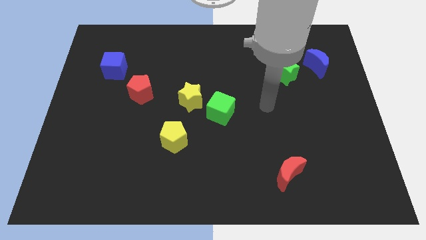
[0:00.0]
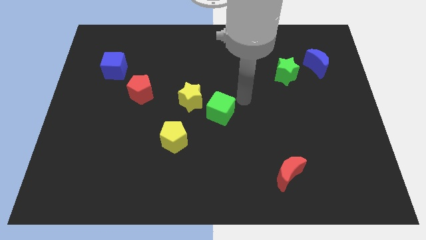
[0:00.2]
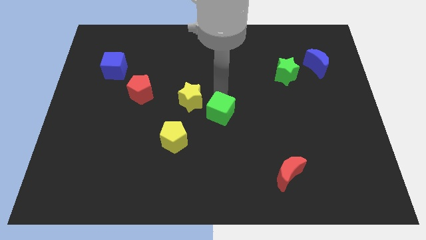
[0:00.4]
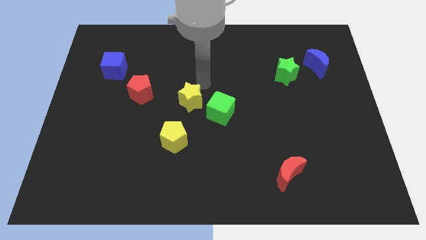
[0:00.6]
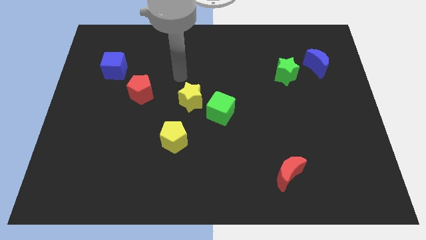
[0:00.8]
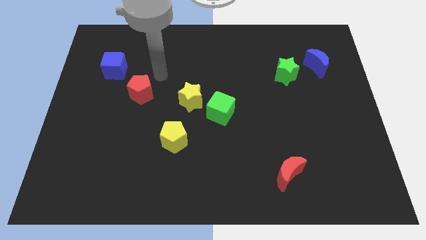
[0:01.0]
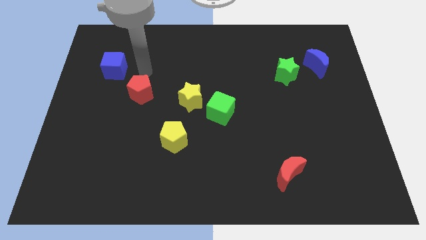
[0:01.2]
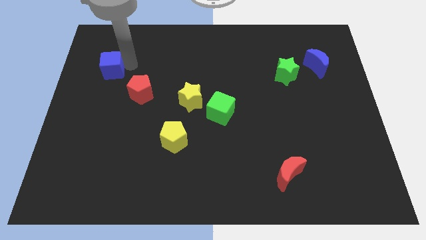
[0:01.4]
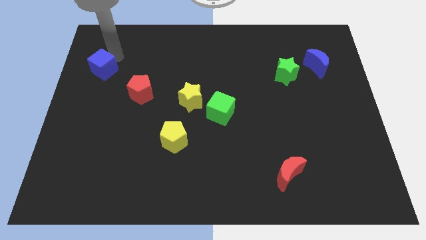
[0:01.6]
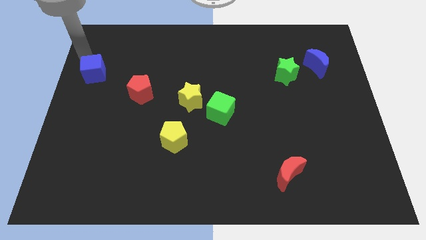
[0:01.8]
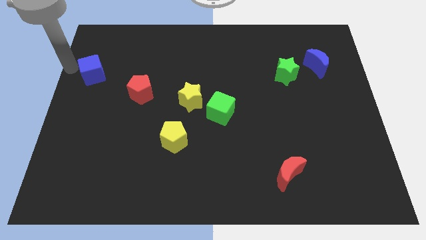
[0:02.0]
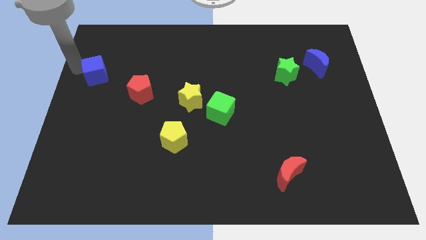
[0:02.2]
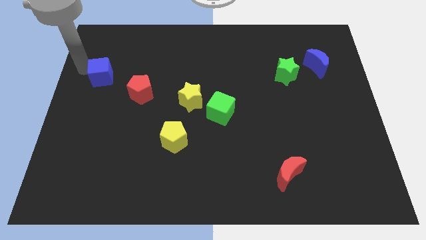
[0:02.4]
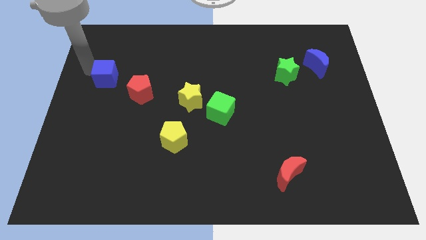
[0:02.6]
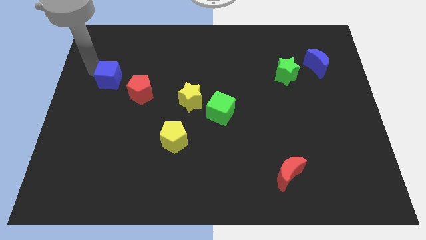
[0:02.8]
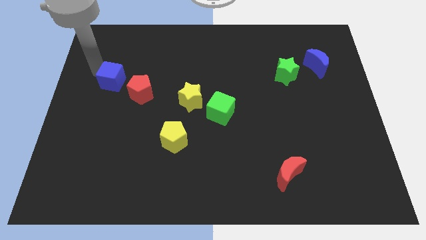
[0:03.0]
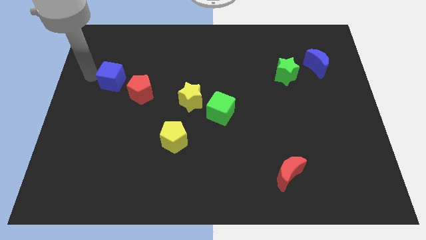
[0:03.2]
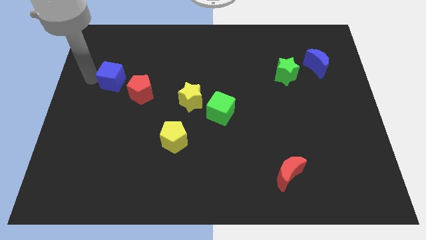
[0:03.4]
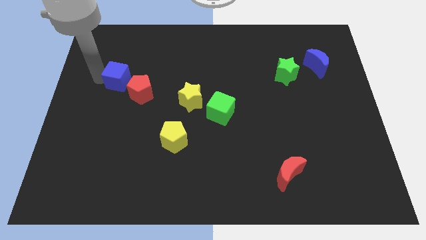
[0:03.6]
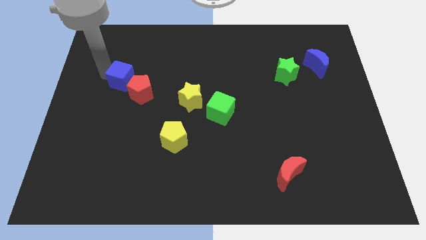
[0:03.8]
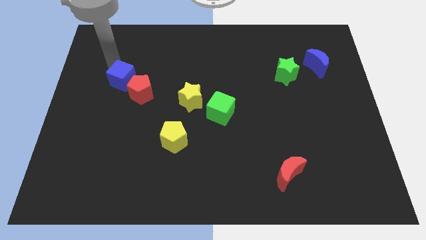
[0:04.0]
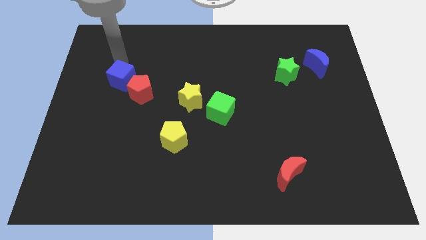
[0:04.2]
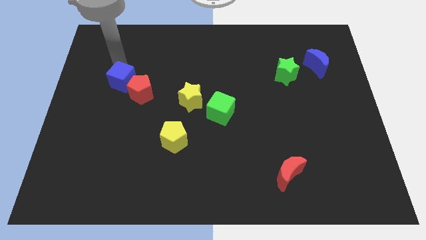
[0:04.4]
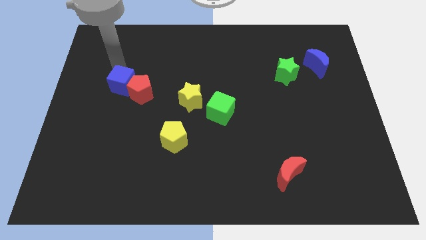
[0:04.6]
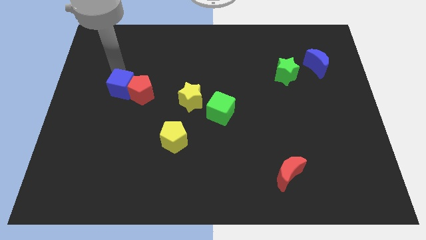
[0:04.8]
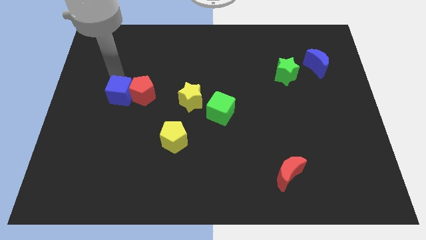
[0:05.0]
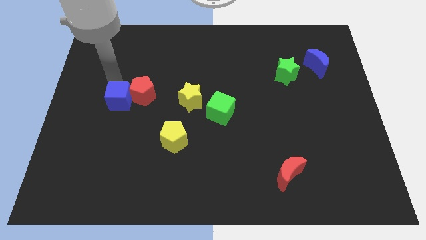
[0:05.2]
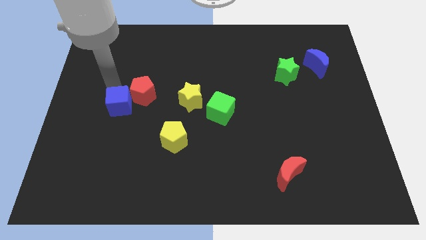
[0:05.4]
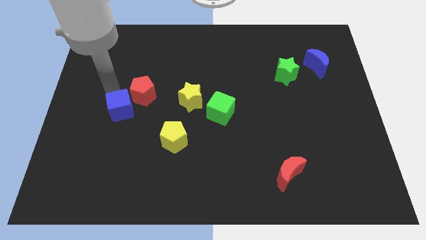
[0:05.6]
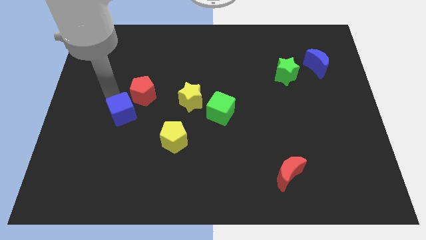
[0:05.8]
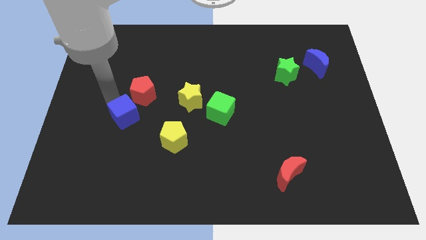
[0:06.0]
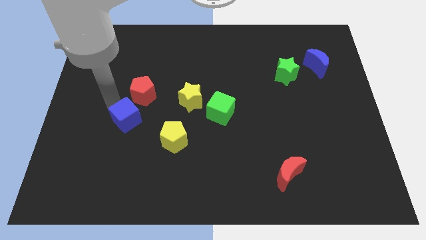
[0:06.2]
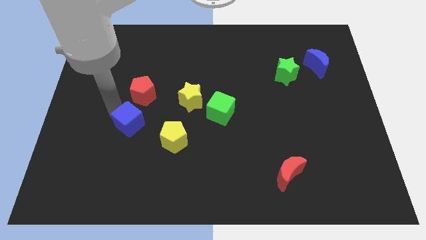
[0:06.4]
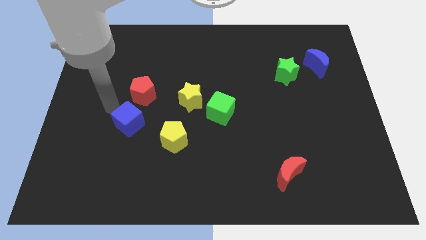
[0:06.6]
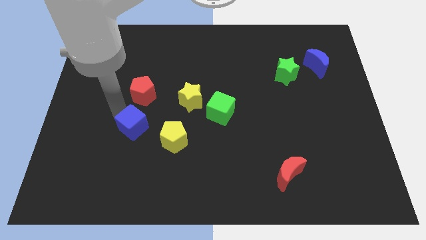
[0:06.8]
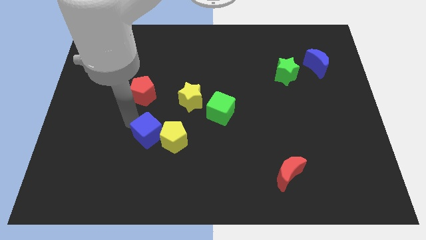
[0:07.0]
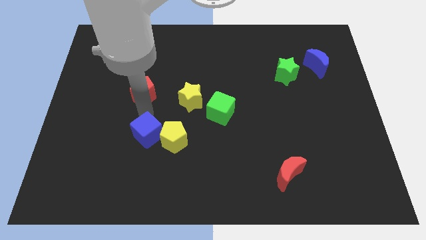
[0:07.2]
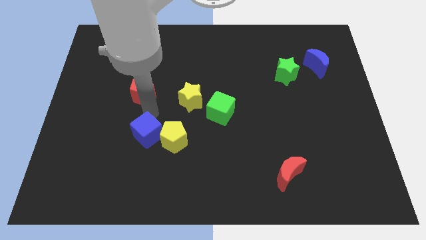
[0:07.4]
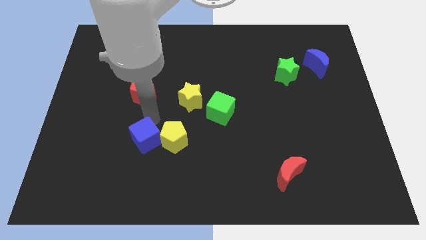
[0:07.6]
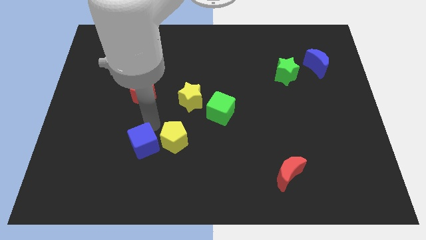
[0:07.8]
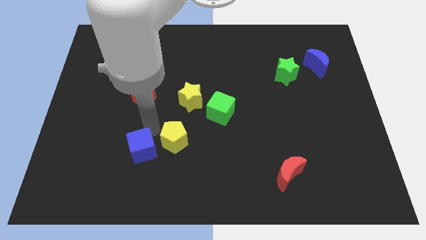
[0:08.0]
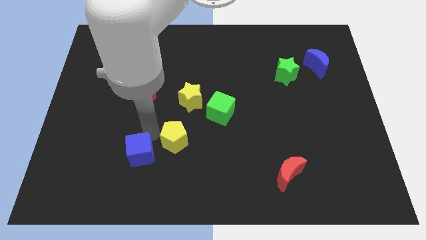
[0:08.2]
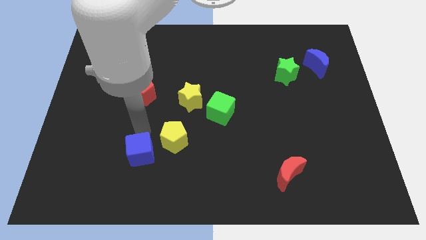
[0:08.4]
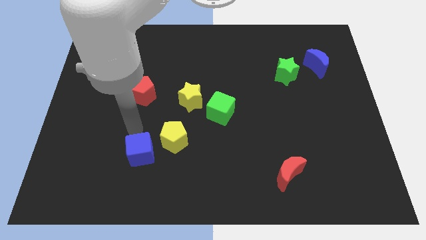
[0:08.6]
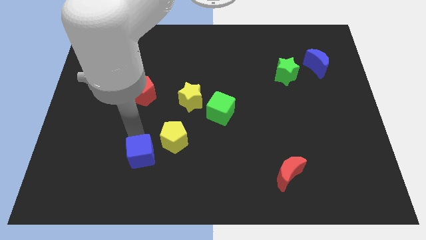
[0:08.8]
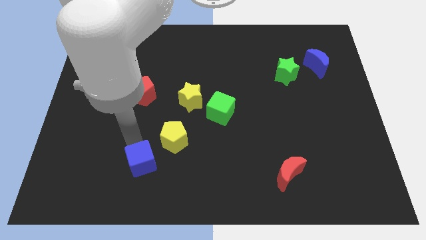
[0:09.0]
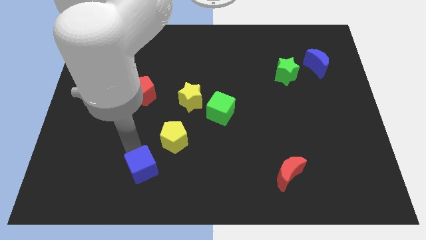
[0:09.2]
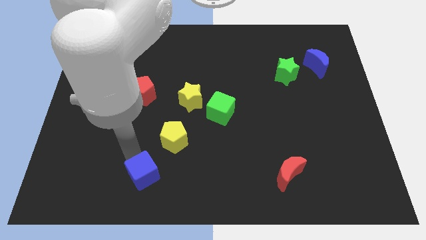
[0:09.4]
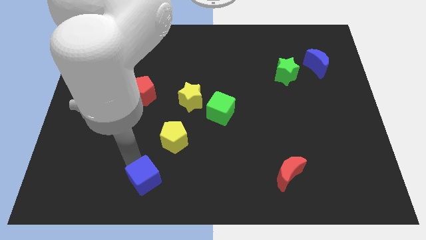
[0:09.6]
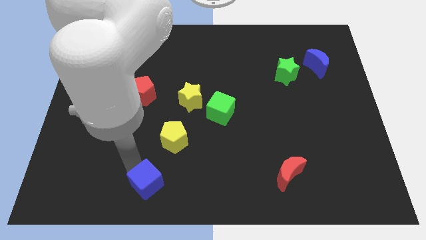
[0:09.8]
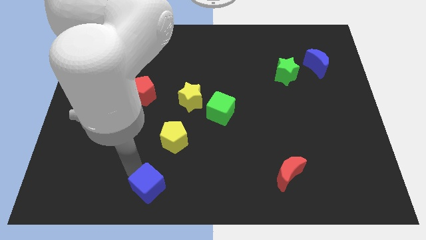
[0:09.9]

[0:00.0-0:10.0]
slide the blue cube to the bottom side

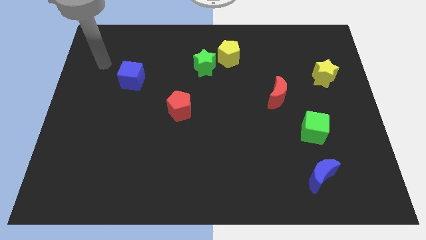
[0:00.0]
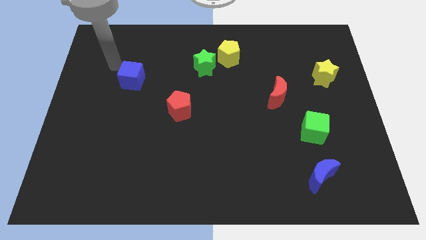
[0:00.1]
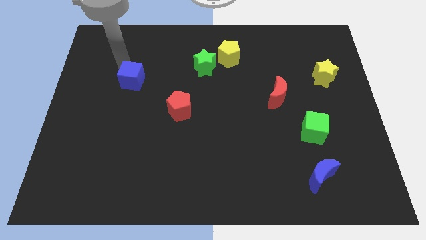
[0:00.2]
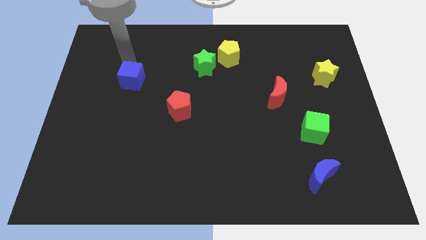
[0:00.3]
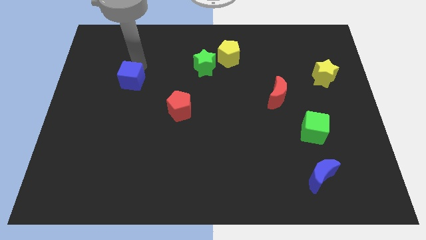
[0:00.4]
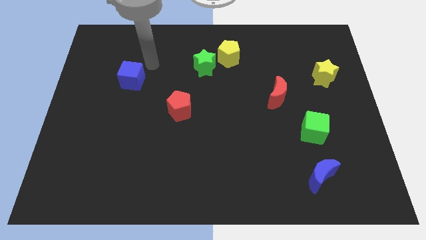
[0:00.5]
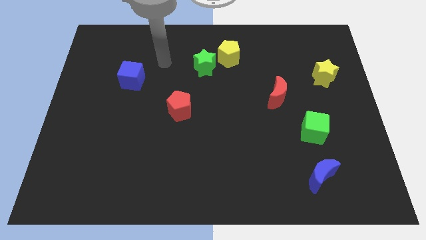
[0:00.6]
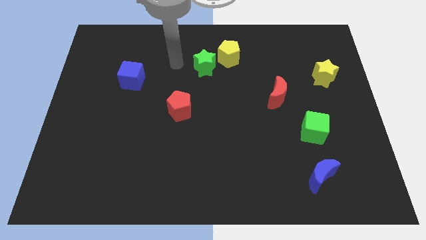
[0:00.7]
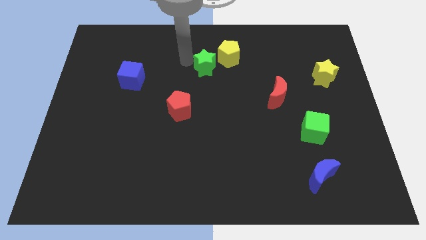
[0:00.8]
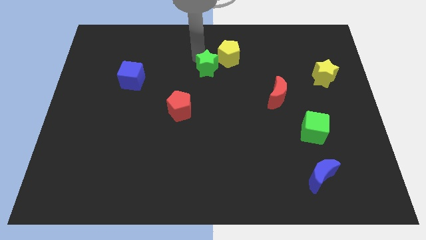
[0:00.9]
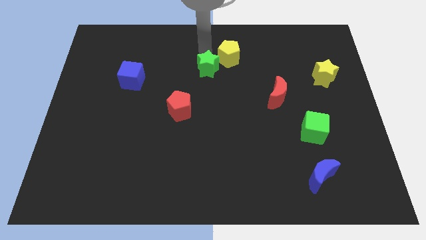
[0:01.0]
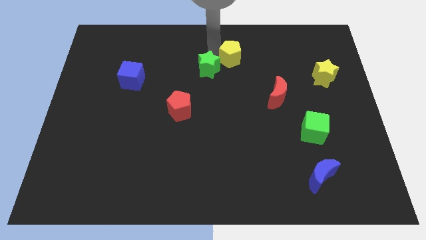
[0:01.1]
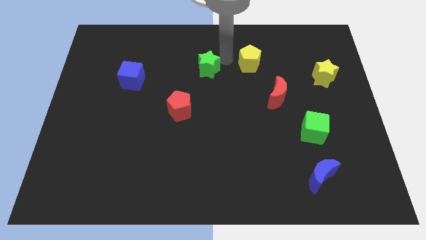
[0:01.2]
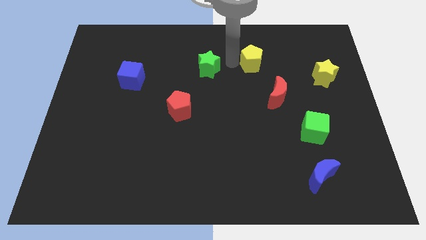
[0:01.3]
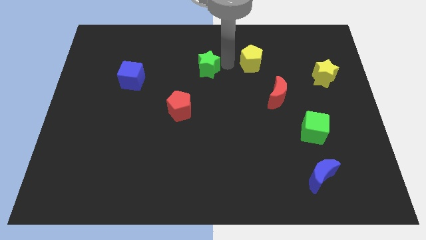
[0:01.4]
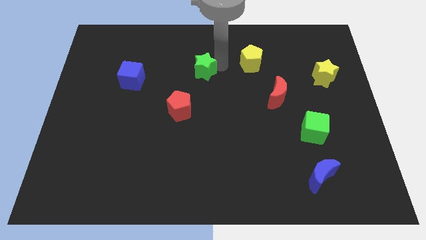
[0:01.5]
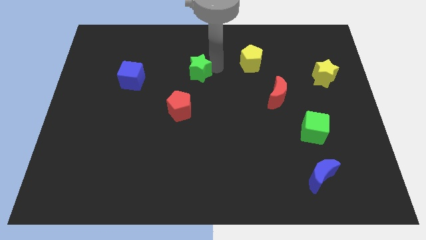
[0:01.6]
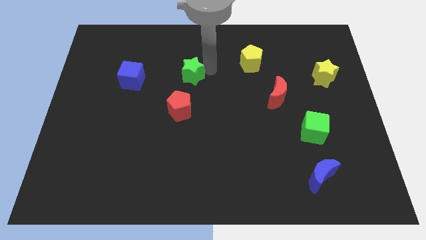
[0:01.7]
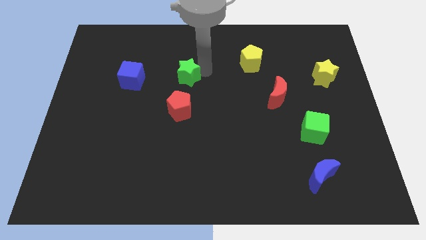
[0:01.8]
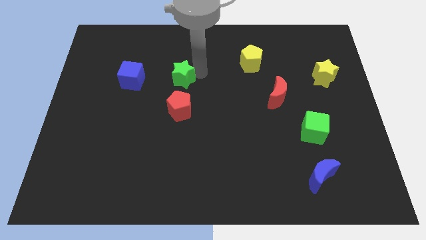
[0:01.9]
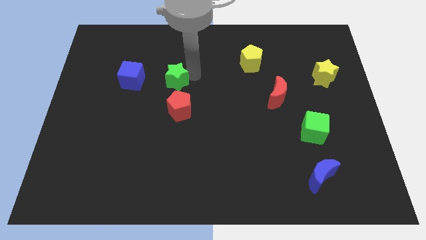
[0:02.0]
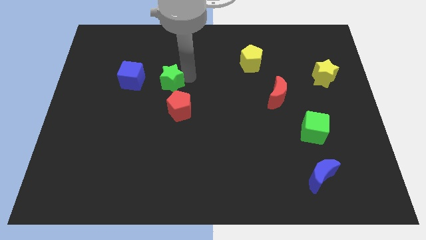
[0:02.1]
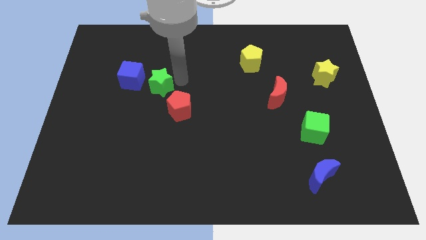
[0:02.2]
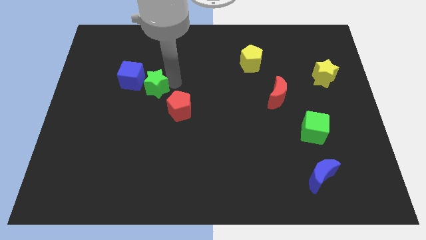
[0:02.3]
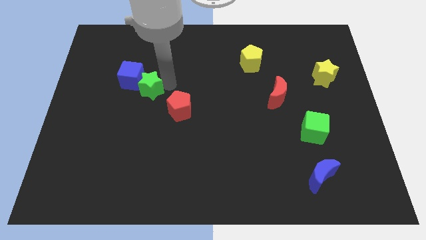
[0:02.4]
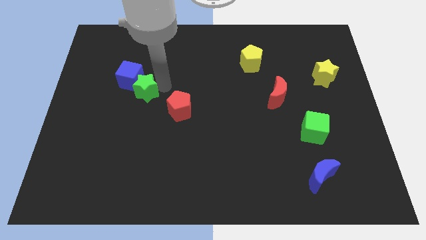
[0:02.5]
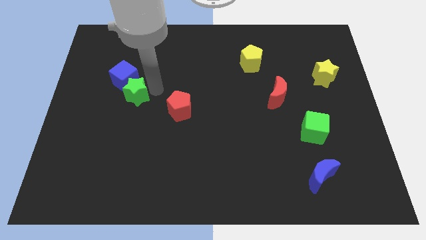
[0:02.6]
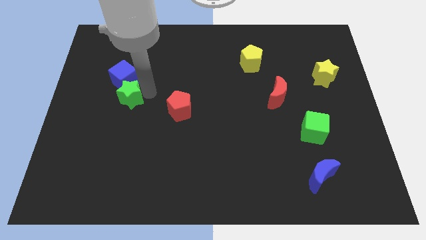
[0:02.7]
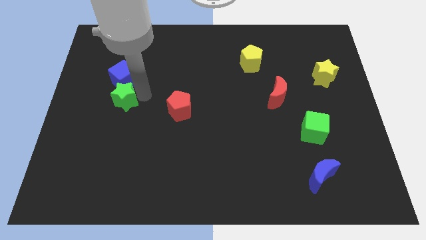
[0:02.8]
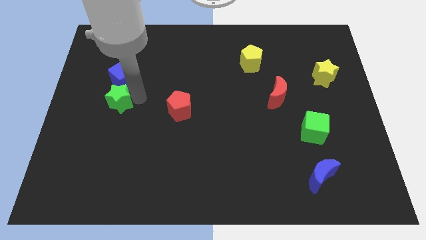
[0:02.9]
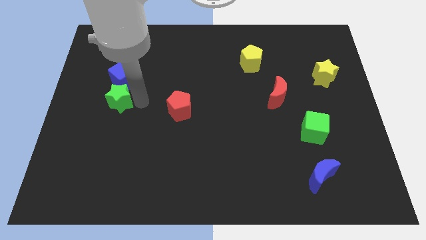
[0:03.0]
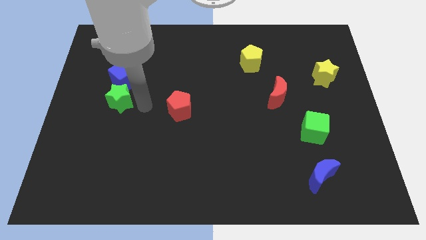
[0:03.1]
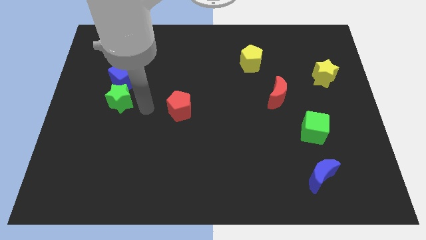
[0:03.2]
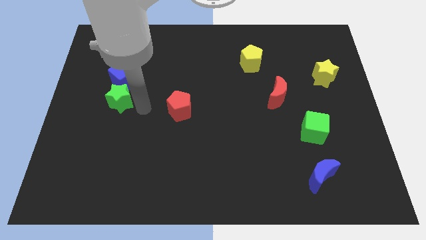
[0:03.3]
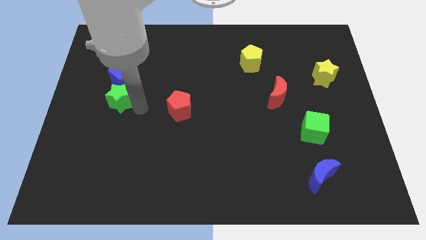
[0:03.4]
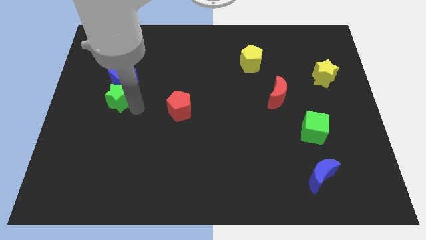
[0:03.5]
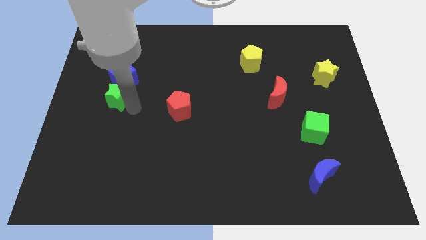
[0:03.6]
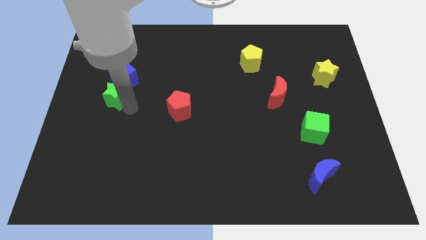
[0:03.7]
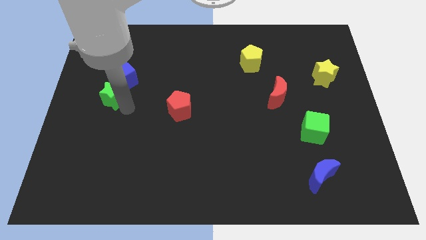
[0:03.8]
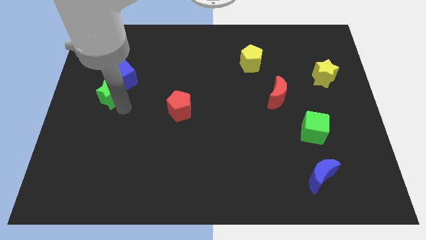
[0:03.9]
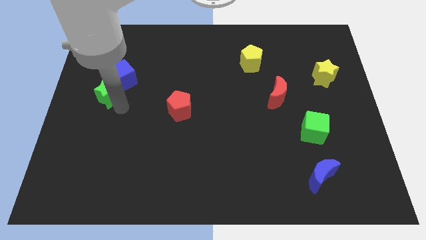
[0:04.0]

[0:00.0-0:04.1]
push the green star to the left side of the board
